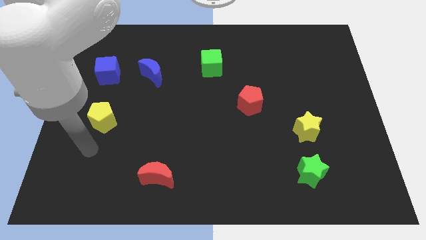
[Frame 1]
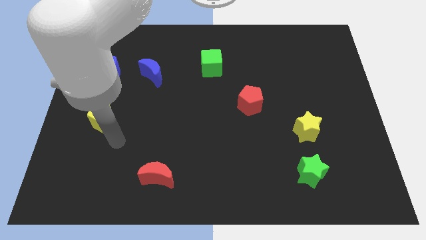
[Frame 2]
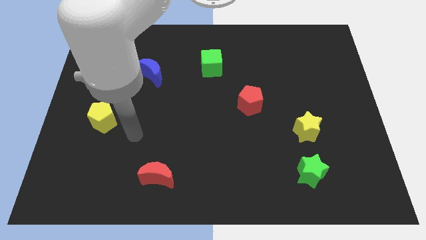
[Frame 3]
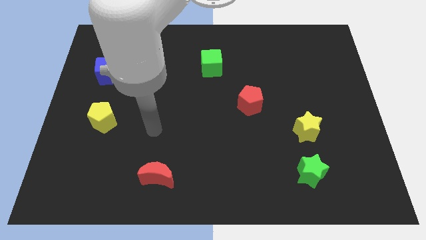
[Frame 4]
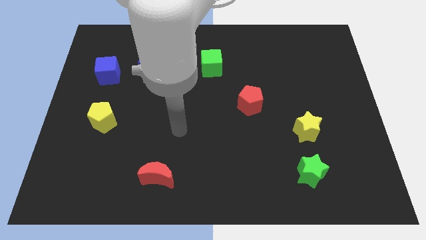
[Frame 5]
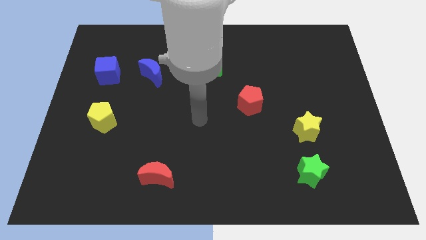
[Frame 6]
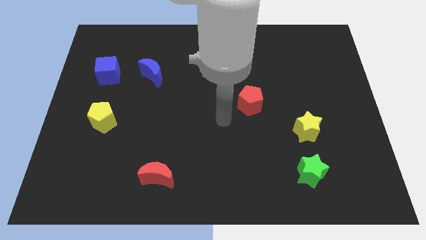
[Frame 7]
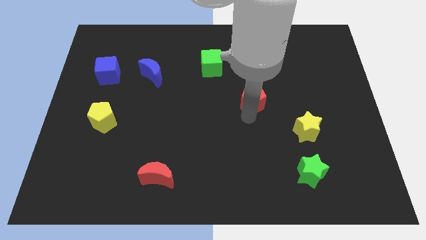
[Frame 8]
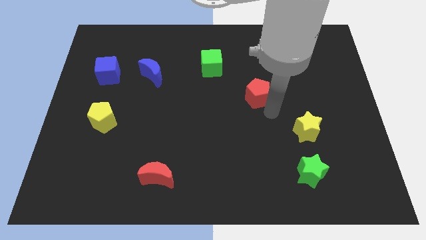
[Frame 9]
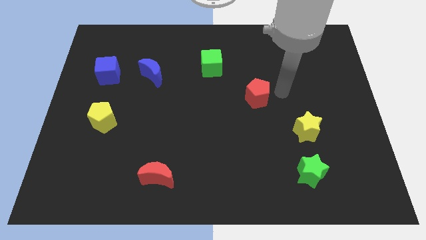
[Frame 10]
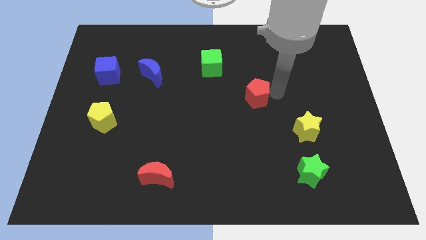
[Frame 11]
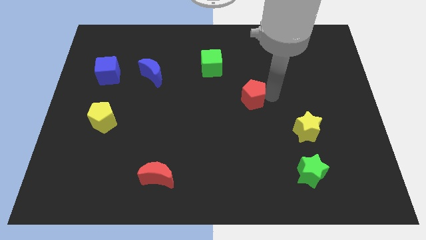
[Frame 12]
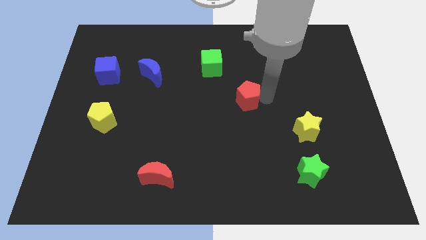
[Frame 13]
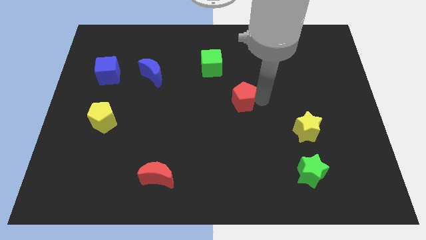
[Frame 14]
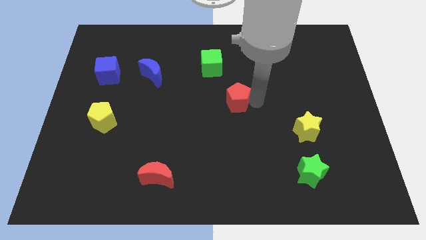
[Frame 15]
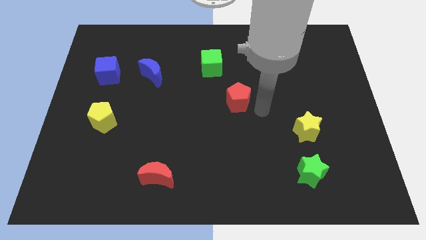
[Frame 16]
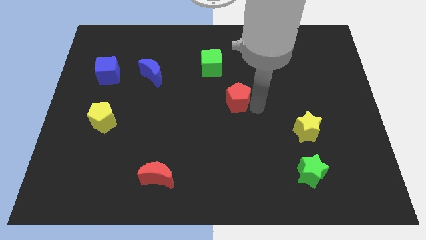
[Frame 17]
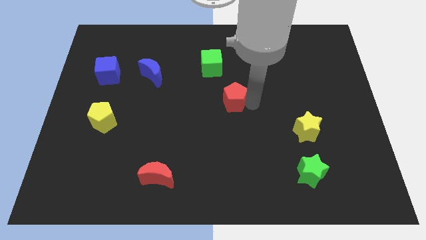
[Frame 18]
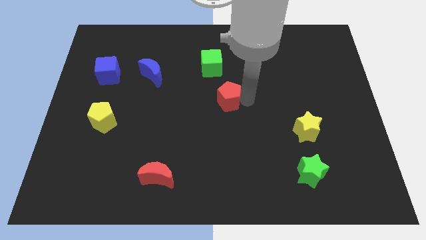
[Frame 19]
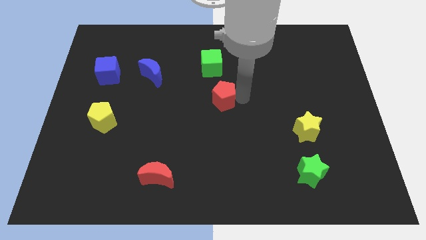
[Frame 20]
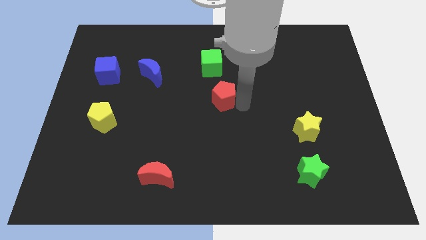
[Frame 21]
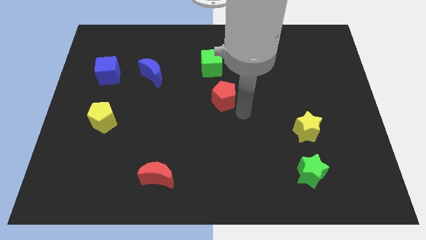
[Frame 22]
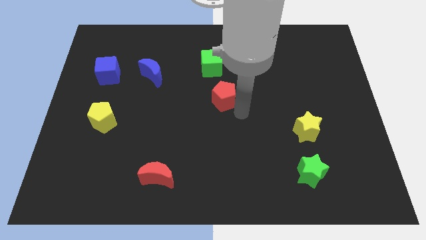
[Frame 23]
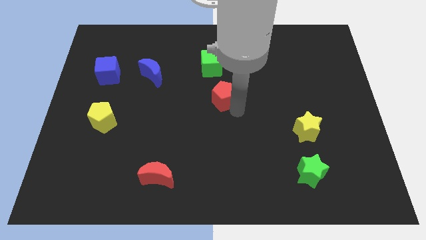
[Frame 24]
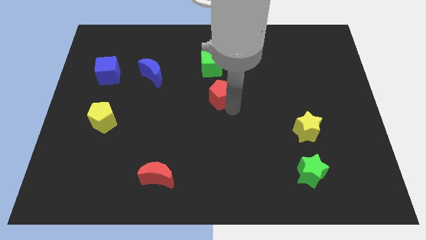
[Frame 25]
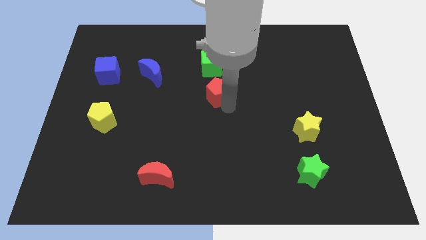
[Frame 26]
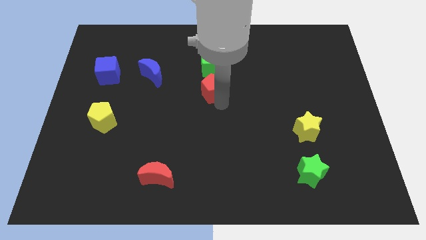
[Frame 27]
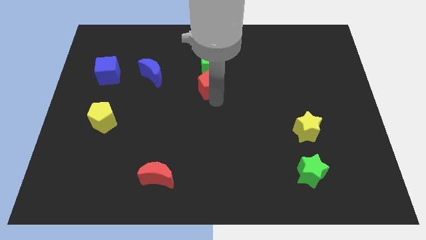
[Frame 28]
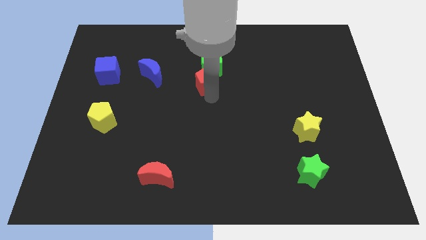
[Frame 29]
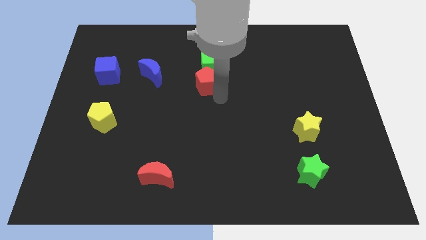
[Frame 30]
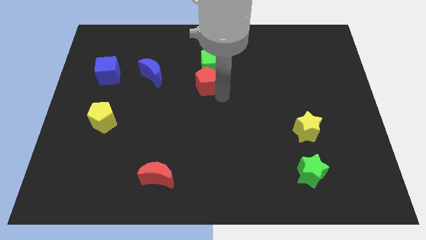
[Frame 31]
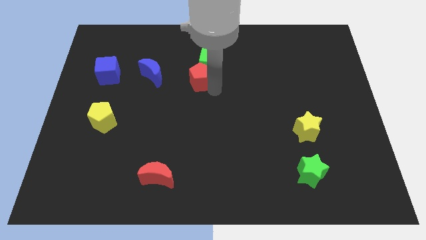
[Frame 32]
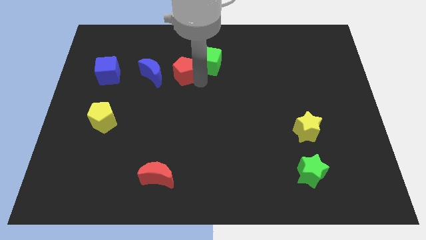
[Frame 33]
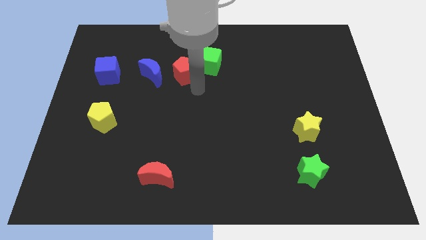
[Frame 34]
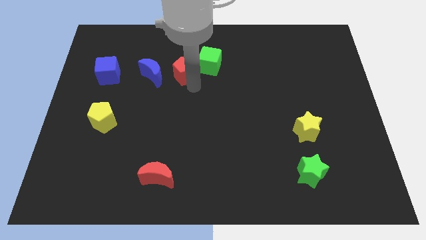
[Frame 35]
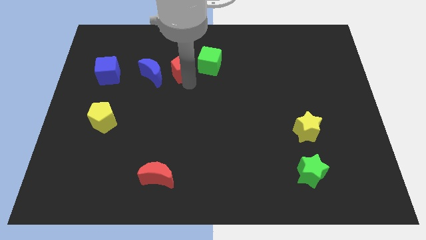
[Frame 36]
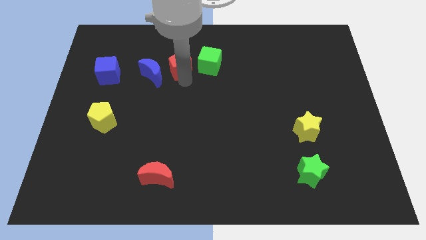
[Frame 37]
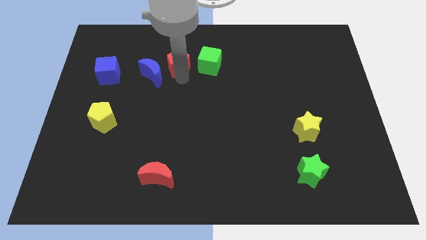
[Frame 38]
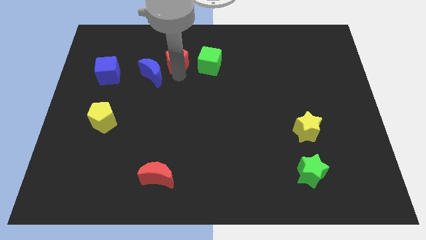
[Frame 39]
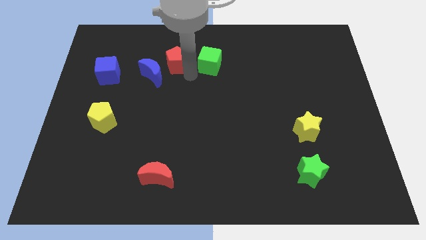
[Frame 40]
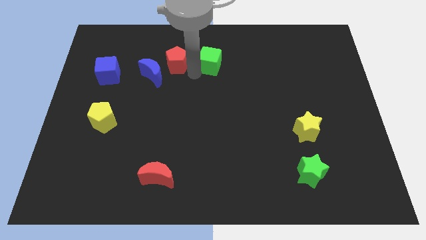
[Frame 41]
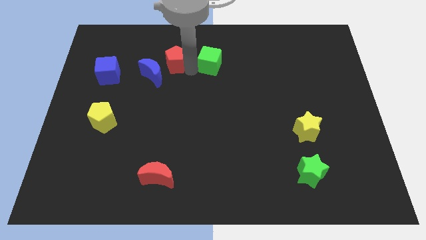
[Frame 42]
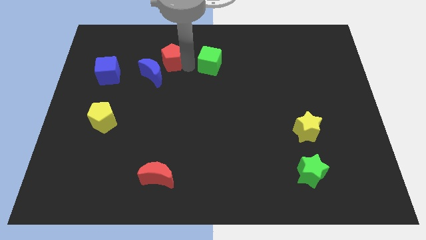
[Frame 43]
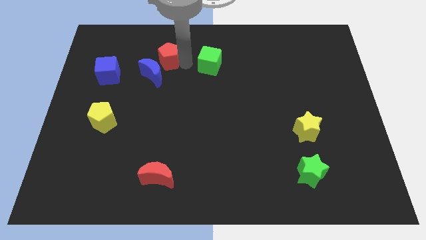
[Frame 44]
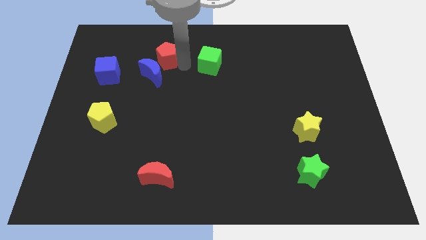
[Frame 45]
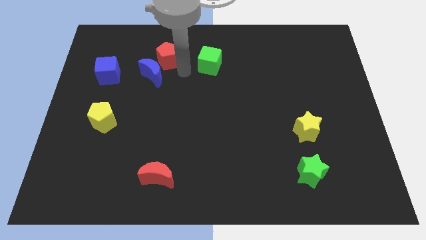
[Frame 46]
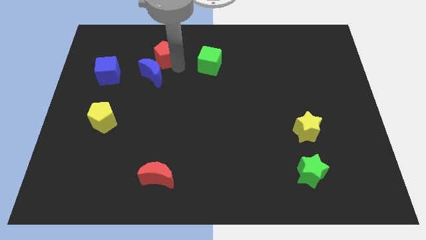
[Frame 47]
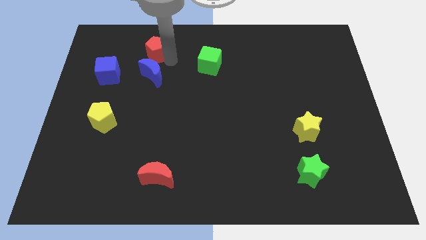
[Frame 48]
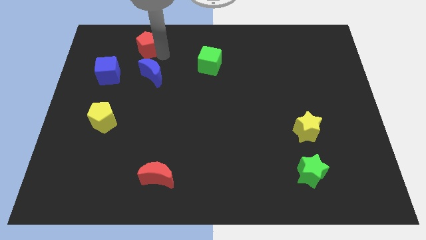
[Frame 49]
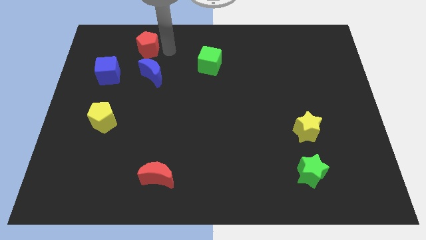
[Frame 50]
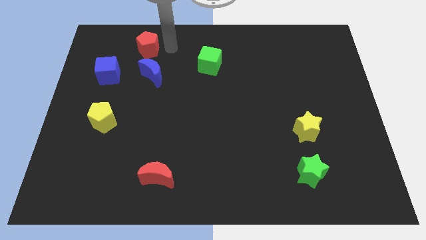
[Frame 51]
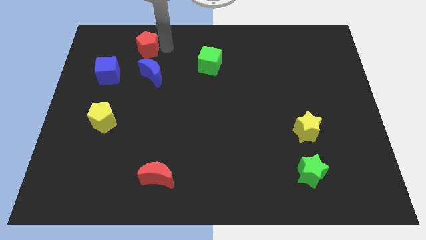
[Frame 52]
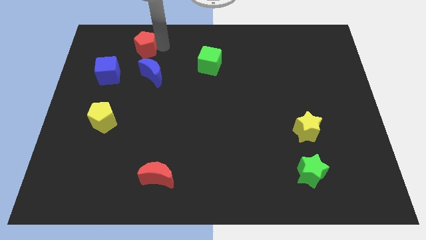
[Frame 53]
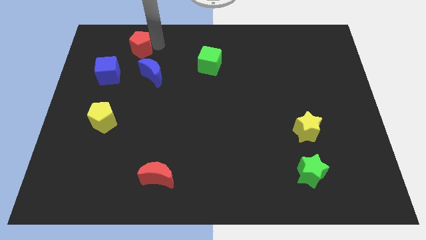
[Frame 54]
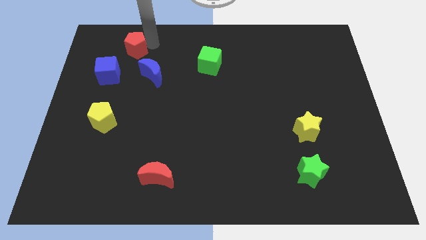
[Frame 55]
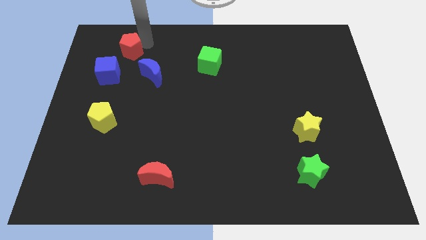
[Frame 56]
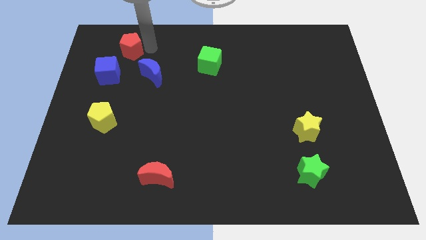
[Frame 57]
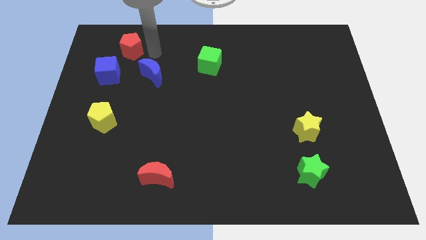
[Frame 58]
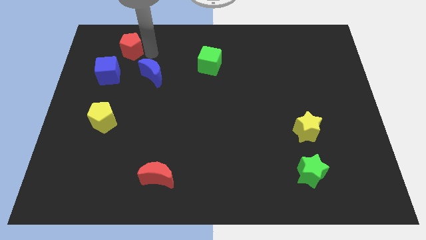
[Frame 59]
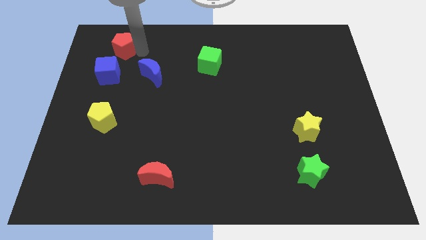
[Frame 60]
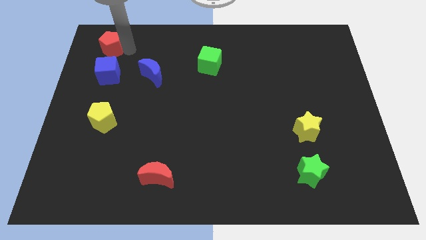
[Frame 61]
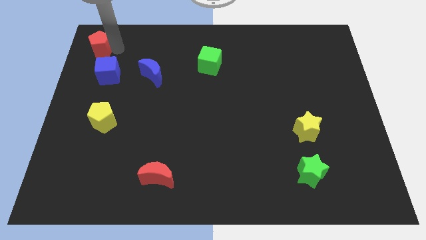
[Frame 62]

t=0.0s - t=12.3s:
move the red pentagon to the top left of the board
